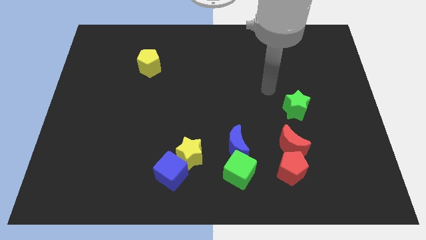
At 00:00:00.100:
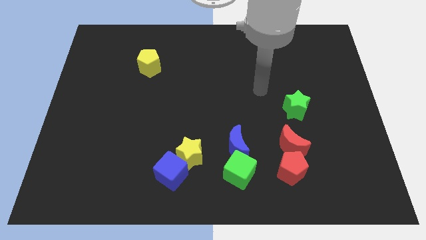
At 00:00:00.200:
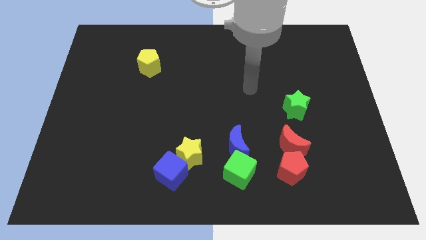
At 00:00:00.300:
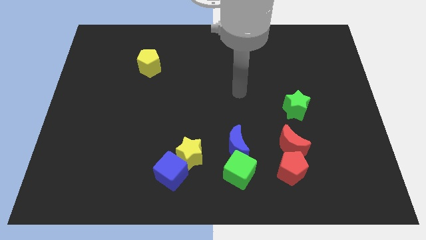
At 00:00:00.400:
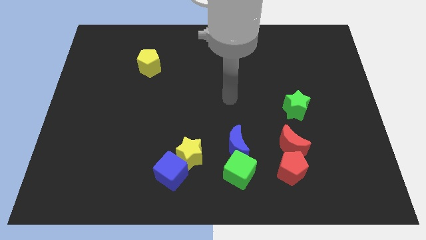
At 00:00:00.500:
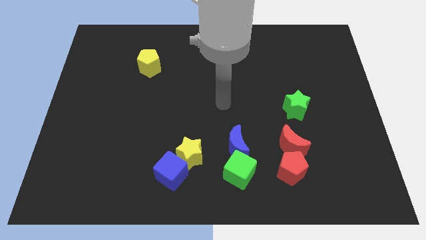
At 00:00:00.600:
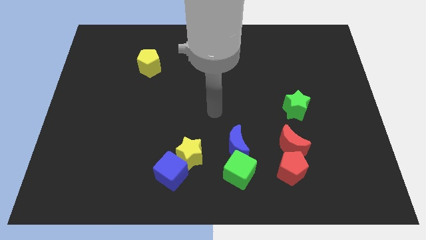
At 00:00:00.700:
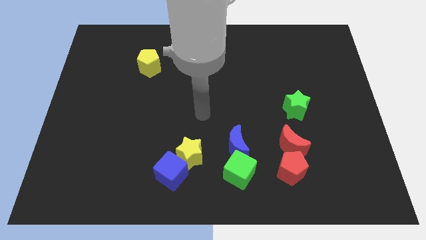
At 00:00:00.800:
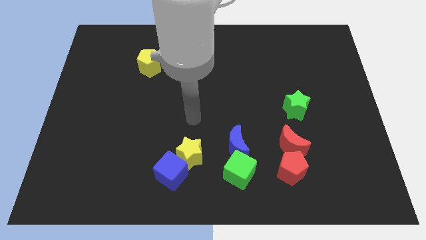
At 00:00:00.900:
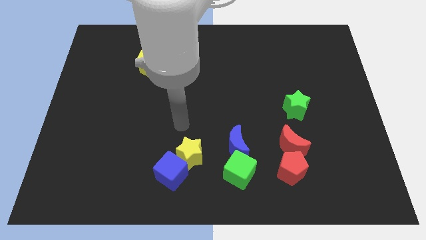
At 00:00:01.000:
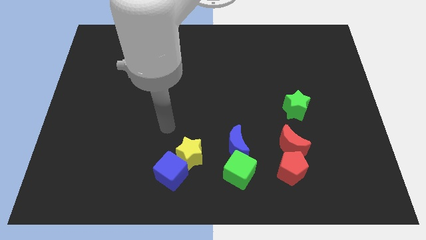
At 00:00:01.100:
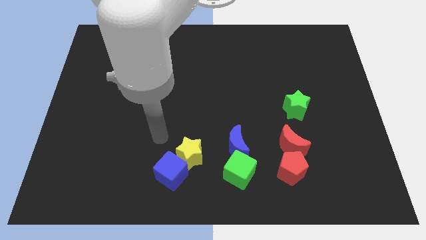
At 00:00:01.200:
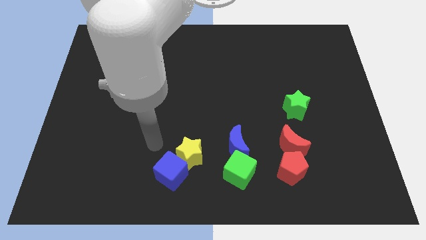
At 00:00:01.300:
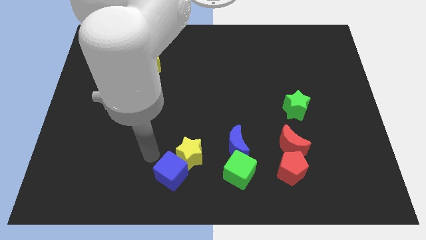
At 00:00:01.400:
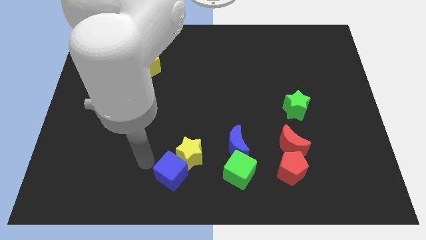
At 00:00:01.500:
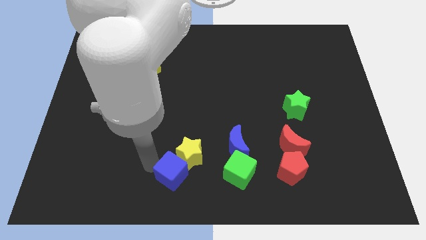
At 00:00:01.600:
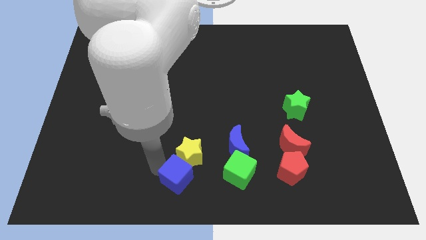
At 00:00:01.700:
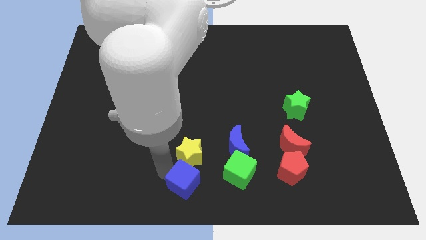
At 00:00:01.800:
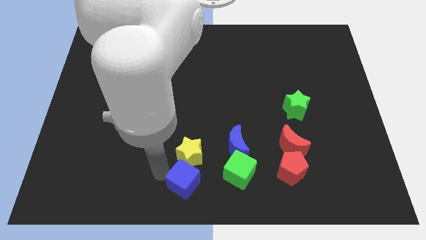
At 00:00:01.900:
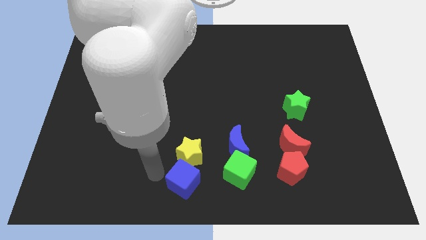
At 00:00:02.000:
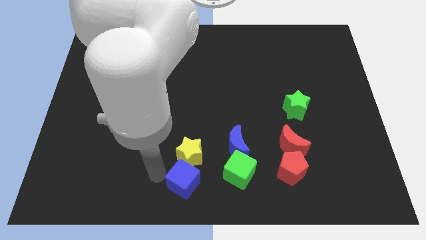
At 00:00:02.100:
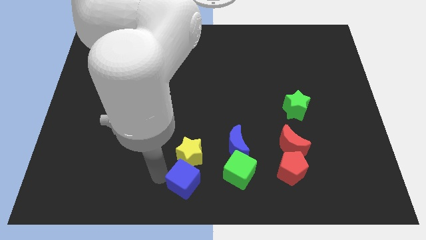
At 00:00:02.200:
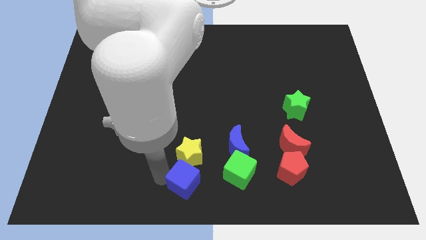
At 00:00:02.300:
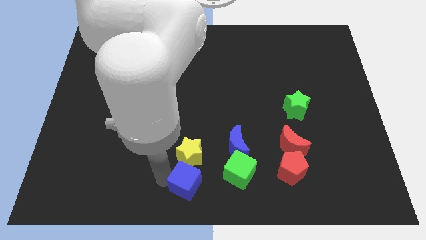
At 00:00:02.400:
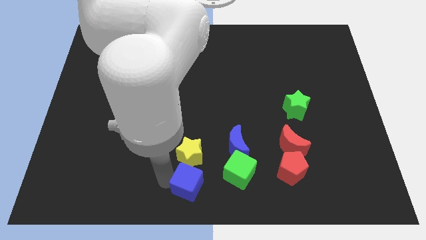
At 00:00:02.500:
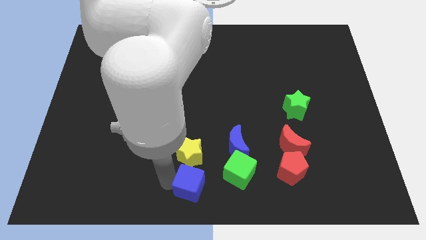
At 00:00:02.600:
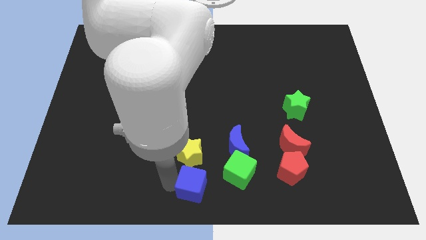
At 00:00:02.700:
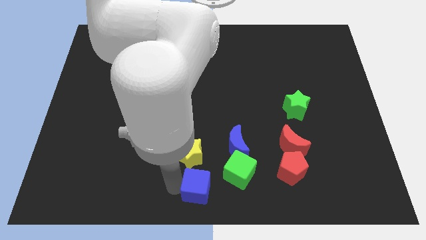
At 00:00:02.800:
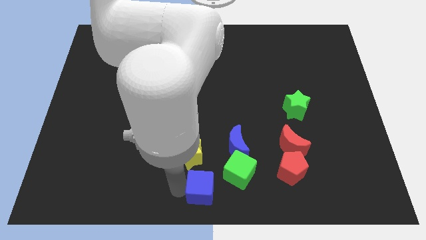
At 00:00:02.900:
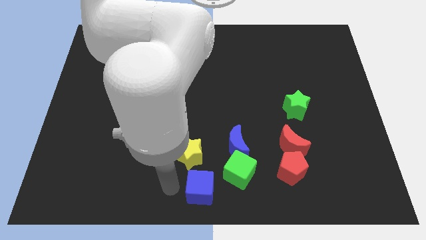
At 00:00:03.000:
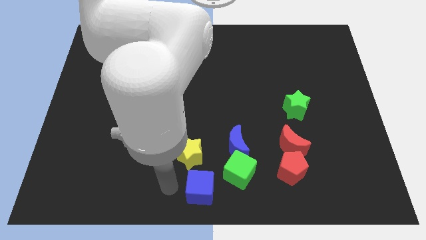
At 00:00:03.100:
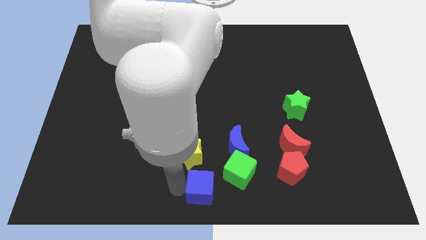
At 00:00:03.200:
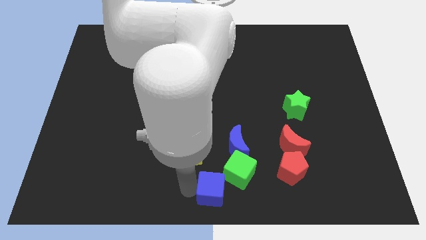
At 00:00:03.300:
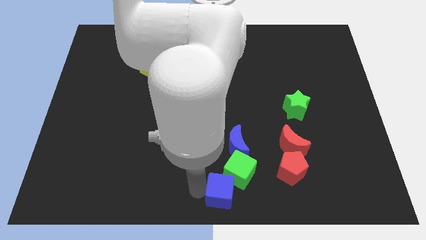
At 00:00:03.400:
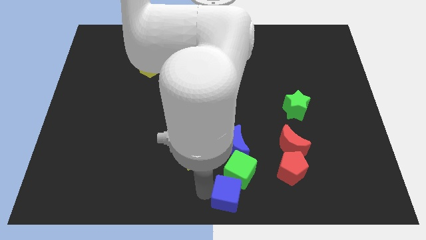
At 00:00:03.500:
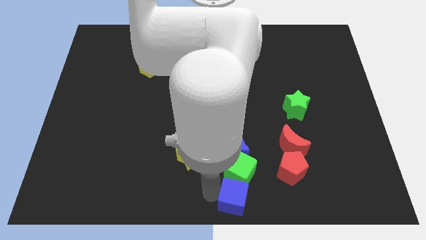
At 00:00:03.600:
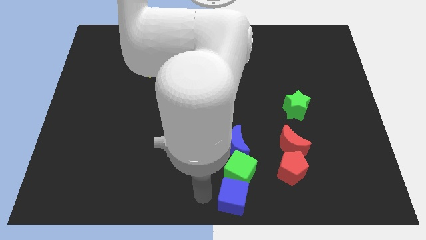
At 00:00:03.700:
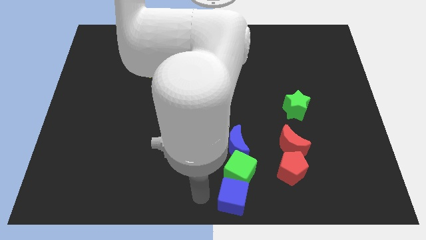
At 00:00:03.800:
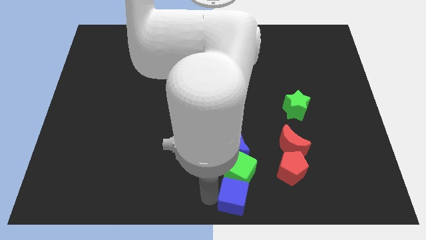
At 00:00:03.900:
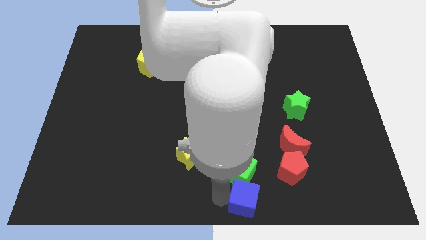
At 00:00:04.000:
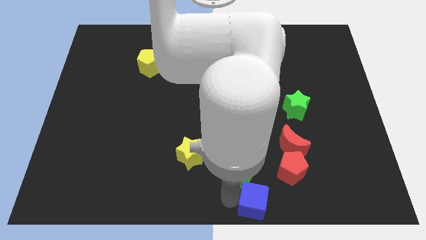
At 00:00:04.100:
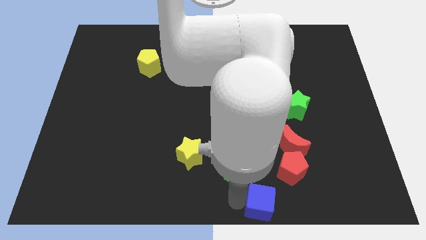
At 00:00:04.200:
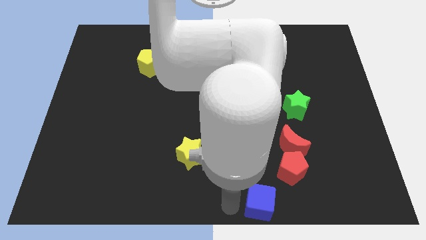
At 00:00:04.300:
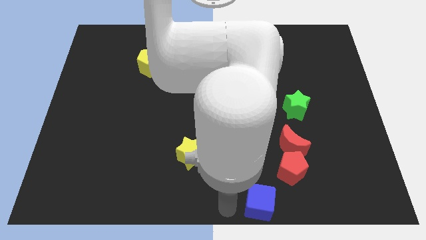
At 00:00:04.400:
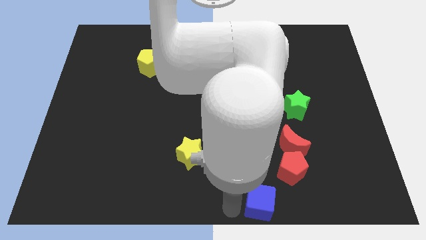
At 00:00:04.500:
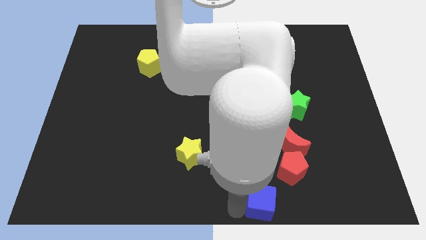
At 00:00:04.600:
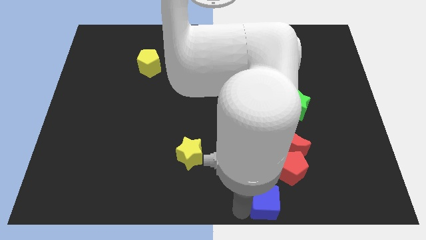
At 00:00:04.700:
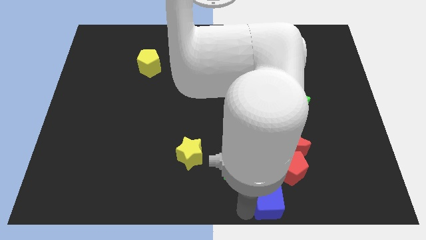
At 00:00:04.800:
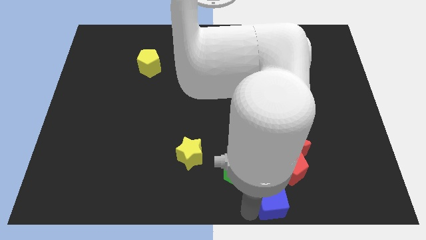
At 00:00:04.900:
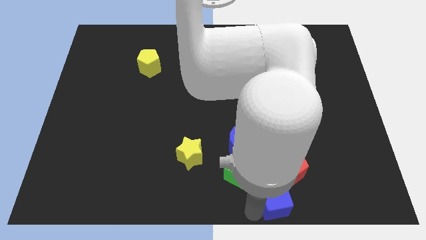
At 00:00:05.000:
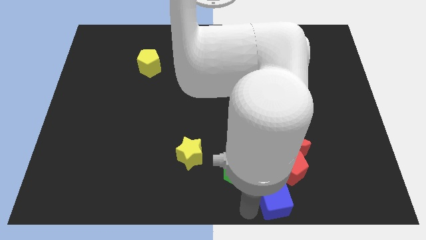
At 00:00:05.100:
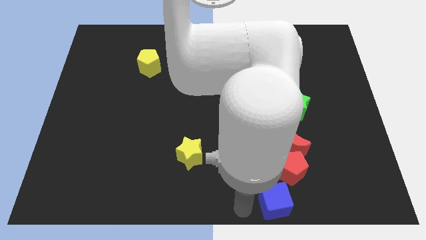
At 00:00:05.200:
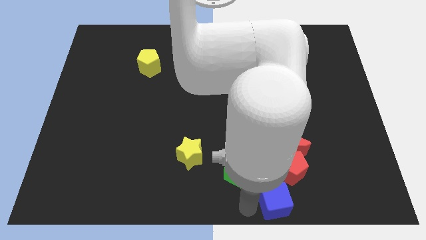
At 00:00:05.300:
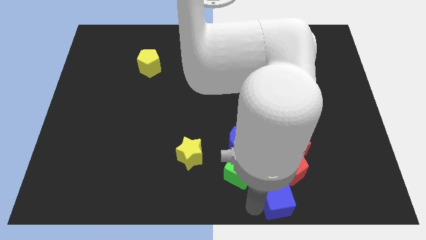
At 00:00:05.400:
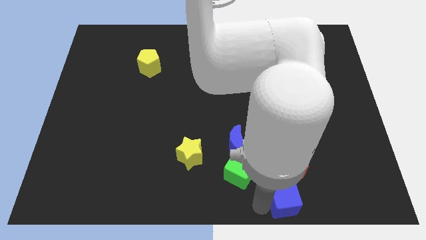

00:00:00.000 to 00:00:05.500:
slide the blue cube to the right

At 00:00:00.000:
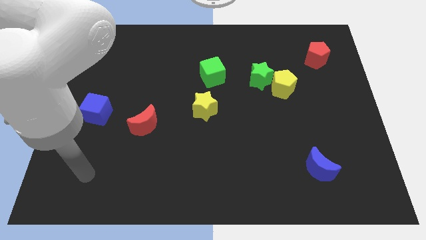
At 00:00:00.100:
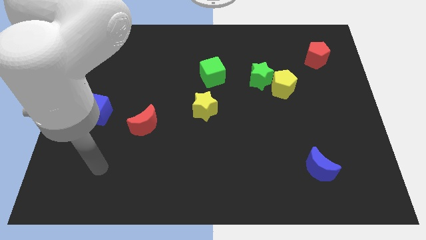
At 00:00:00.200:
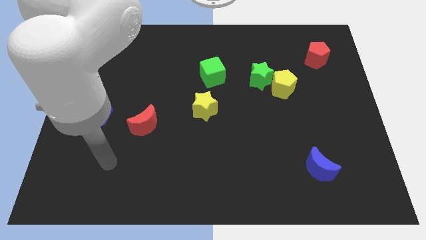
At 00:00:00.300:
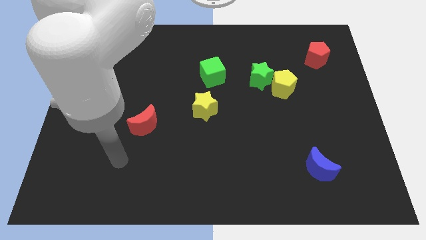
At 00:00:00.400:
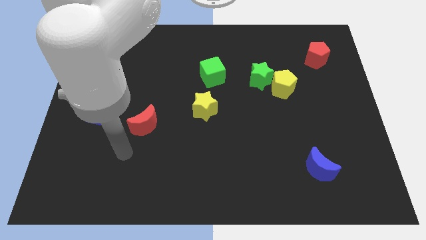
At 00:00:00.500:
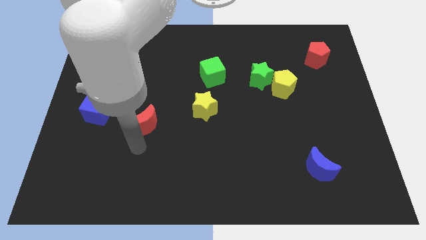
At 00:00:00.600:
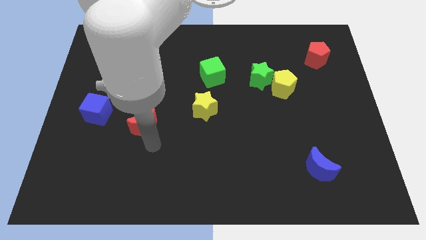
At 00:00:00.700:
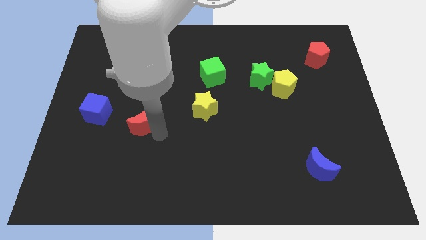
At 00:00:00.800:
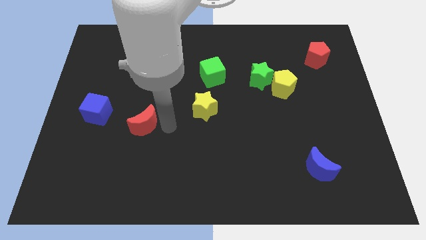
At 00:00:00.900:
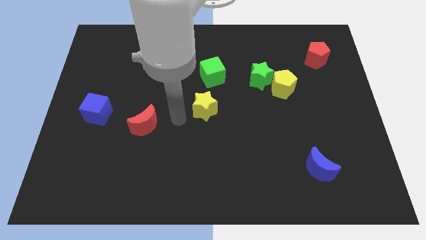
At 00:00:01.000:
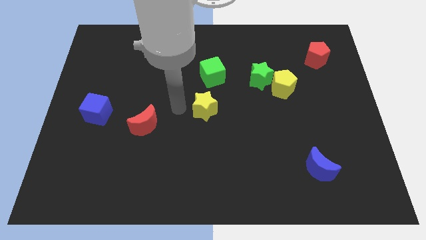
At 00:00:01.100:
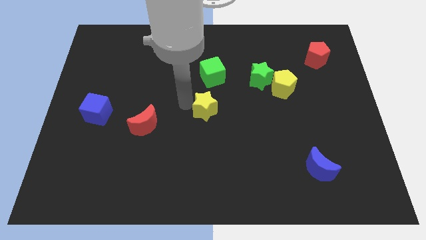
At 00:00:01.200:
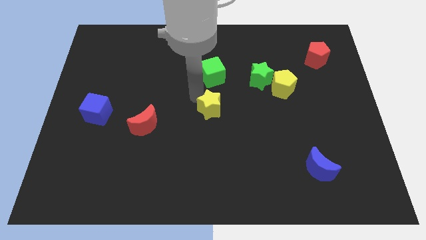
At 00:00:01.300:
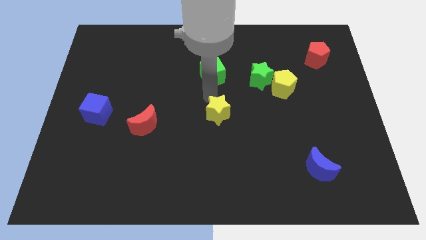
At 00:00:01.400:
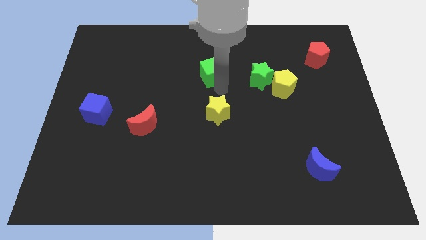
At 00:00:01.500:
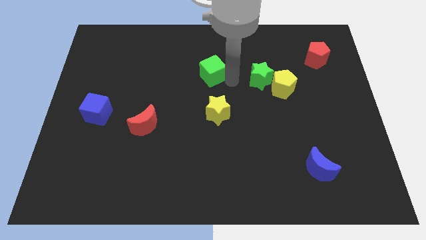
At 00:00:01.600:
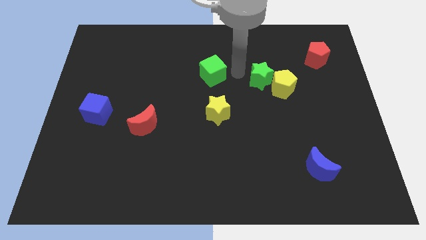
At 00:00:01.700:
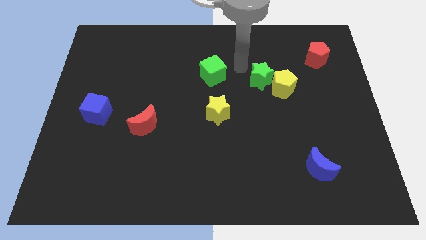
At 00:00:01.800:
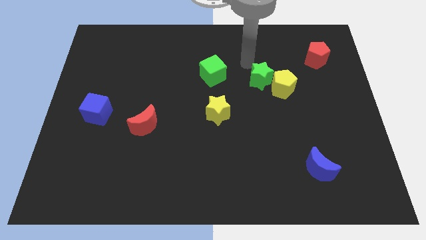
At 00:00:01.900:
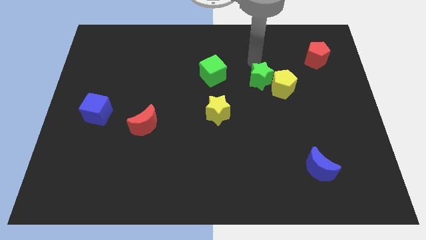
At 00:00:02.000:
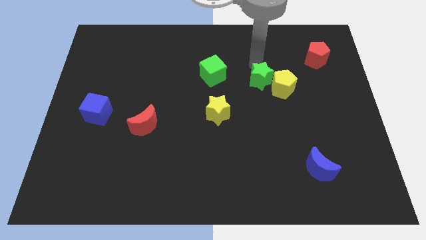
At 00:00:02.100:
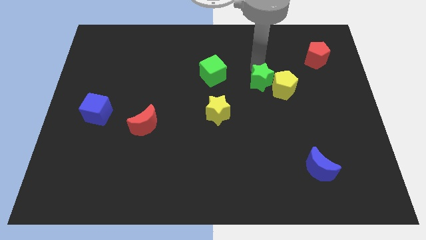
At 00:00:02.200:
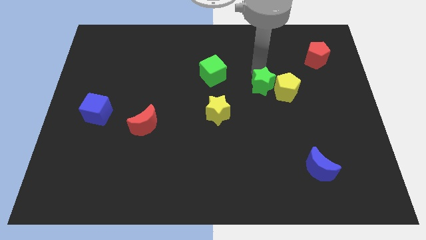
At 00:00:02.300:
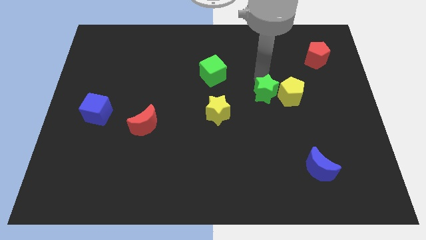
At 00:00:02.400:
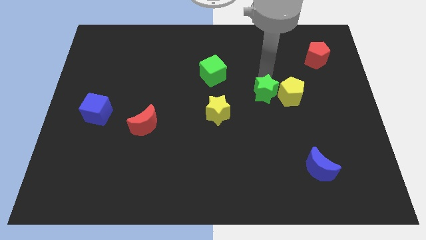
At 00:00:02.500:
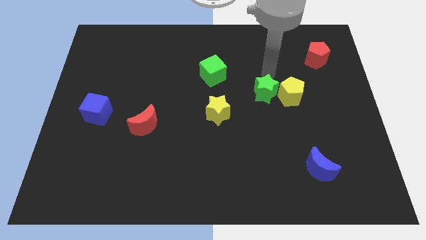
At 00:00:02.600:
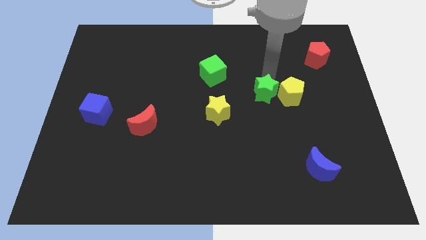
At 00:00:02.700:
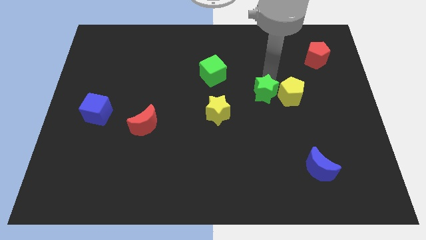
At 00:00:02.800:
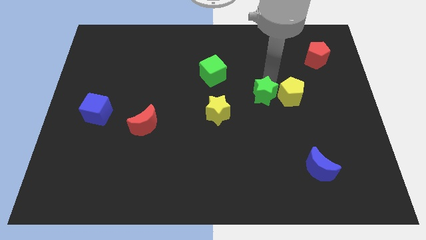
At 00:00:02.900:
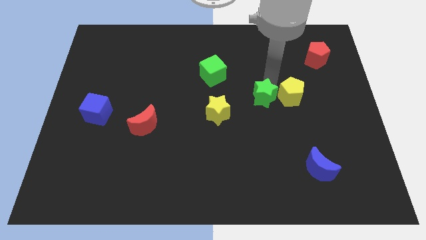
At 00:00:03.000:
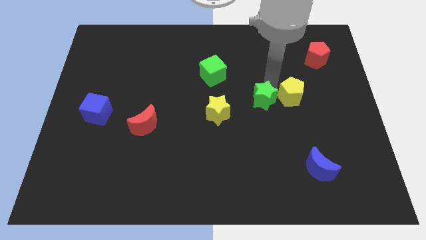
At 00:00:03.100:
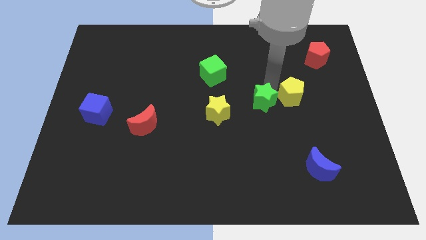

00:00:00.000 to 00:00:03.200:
slightly move the green star downwards
